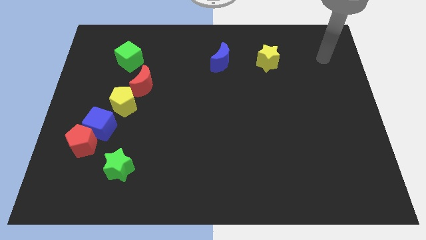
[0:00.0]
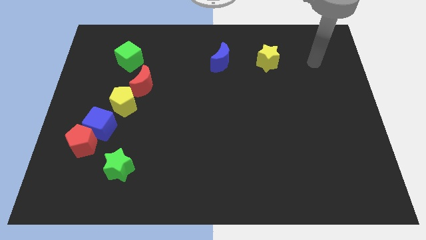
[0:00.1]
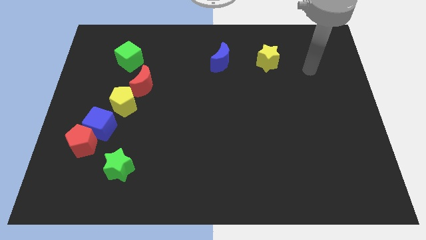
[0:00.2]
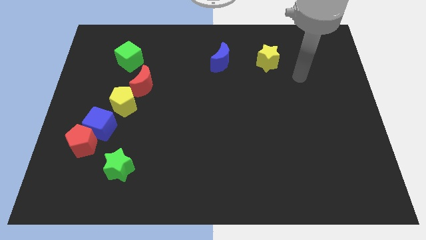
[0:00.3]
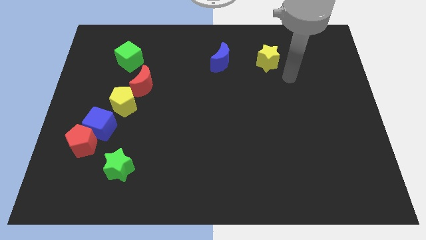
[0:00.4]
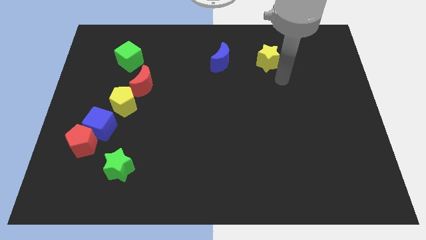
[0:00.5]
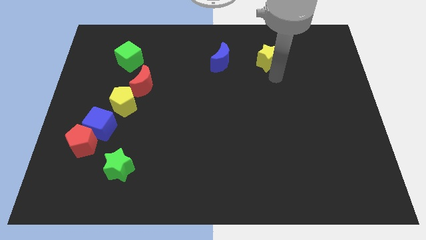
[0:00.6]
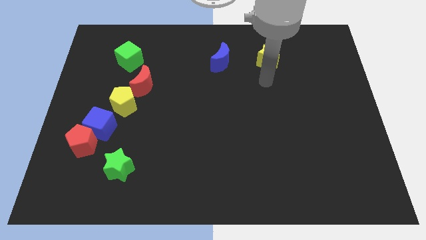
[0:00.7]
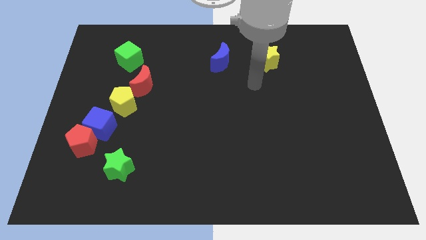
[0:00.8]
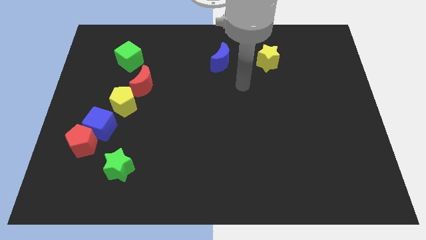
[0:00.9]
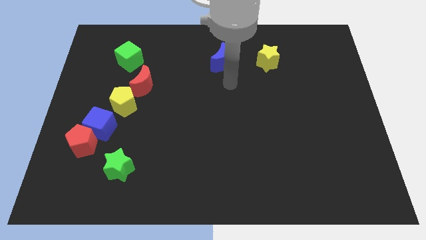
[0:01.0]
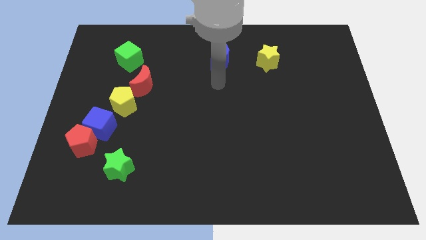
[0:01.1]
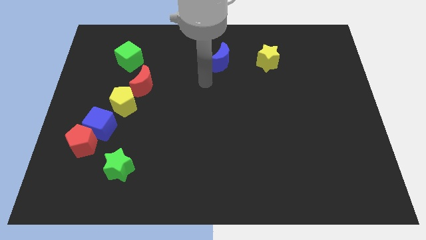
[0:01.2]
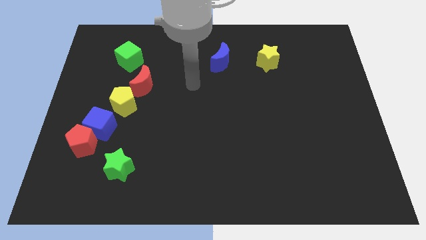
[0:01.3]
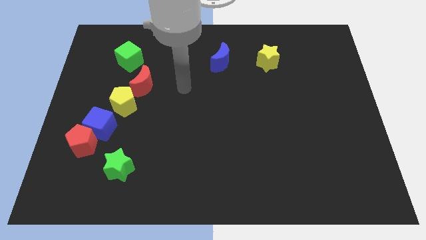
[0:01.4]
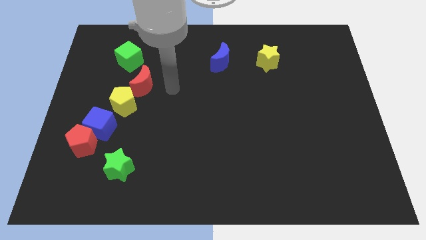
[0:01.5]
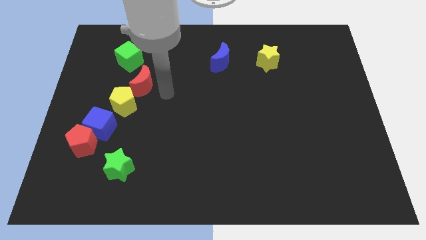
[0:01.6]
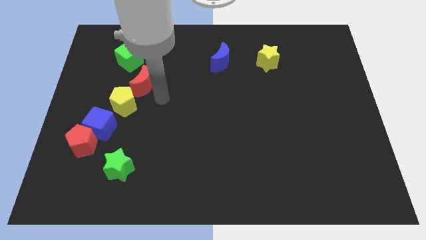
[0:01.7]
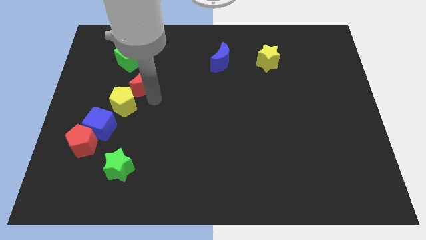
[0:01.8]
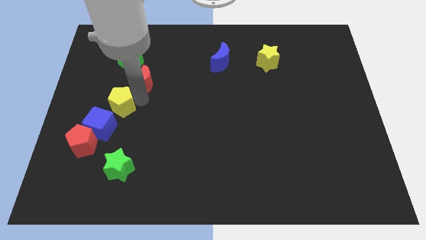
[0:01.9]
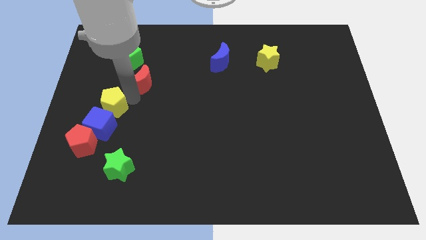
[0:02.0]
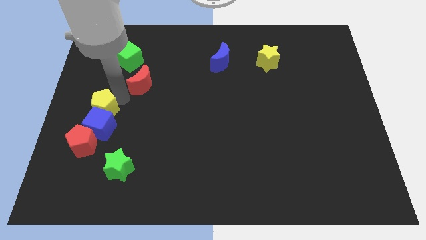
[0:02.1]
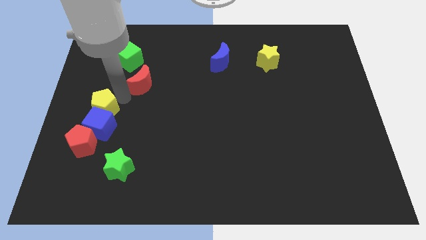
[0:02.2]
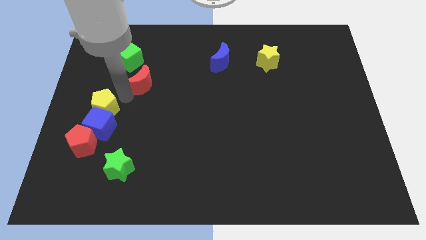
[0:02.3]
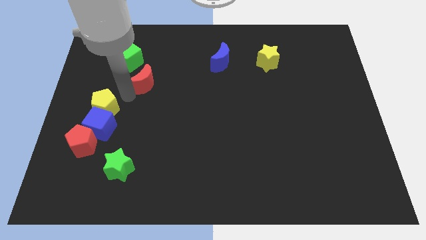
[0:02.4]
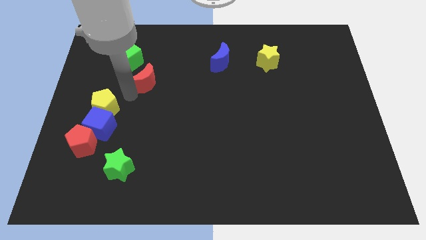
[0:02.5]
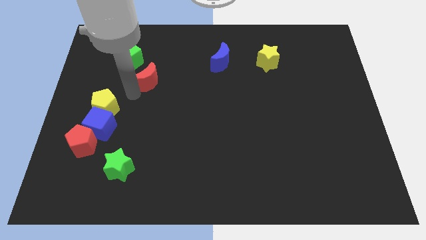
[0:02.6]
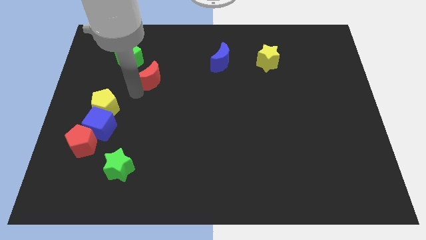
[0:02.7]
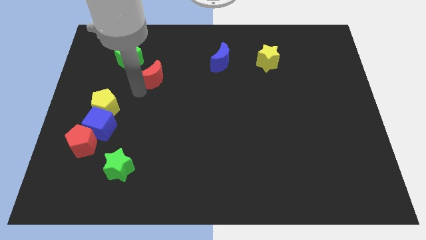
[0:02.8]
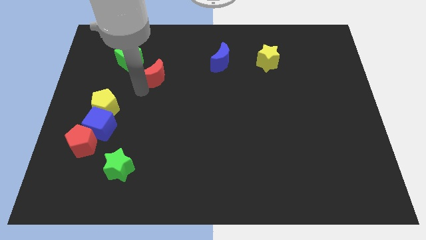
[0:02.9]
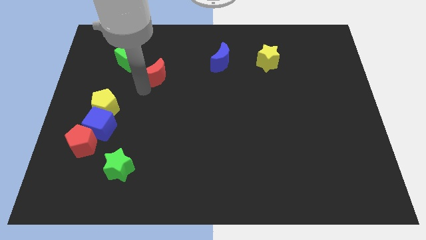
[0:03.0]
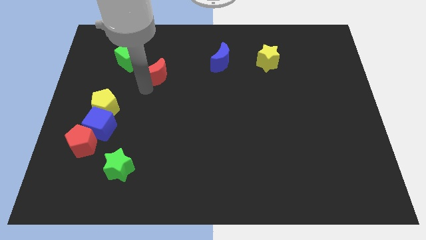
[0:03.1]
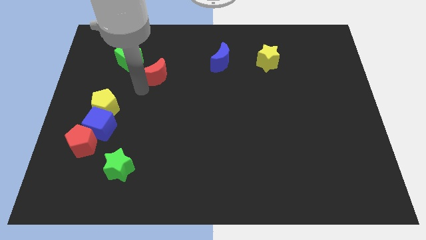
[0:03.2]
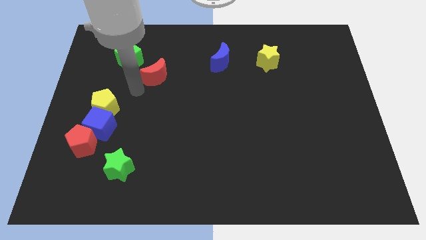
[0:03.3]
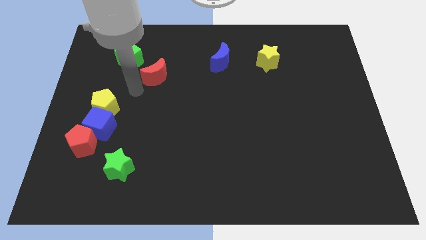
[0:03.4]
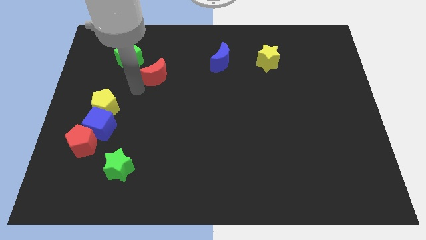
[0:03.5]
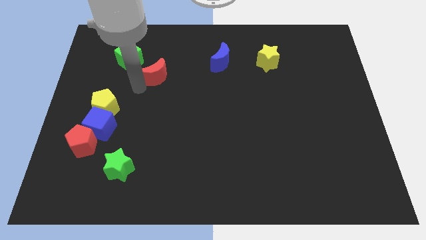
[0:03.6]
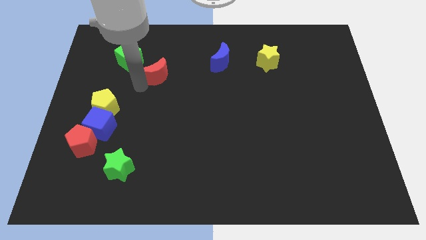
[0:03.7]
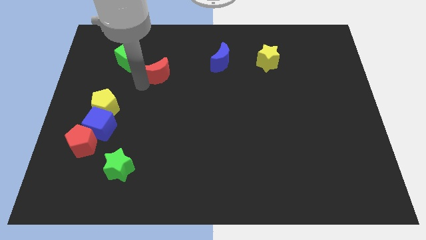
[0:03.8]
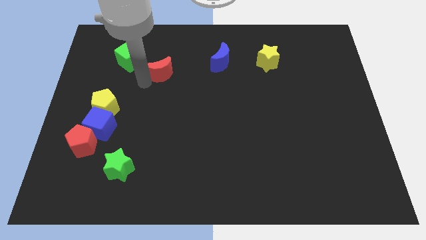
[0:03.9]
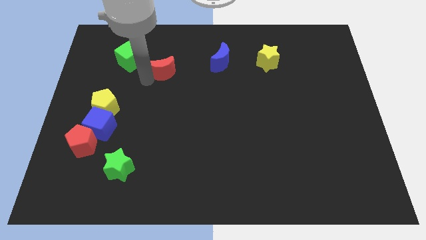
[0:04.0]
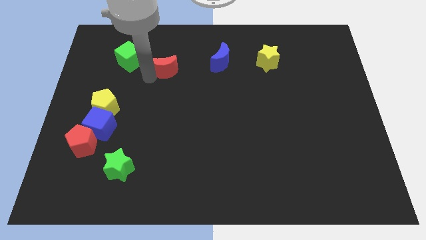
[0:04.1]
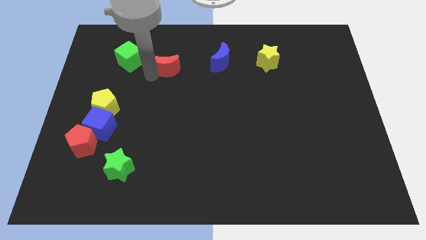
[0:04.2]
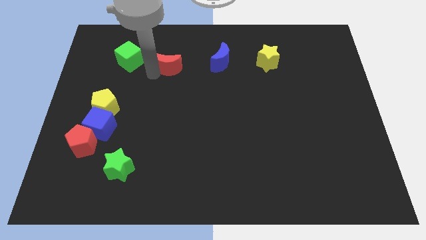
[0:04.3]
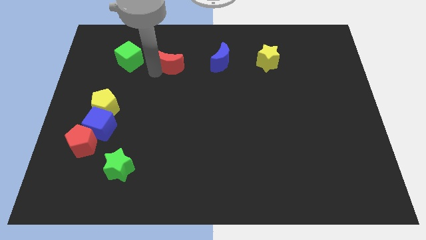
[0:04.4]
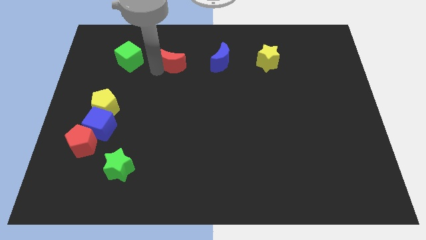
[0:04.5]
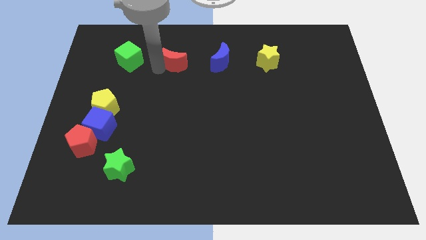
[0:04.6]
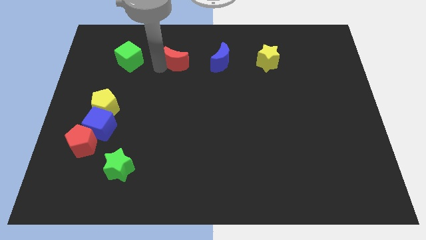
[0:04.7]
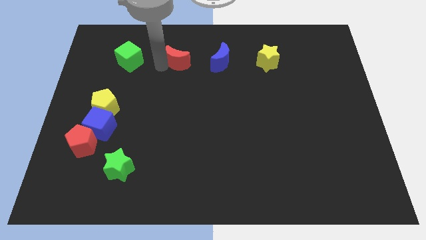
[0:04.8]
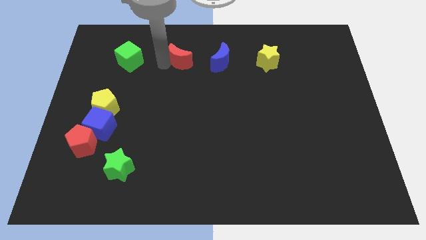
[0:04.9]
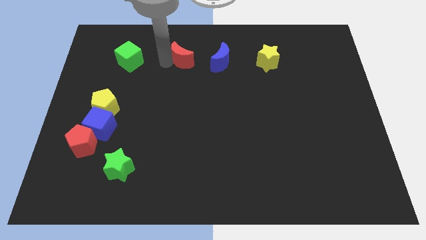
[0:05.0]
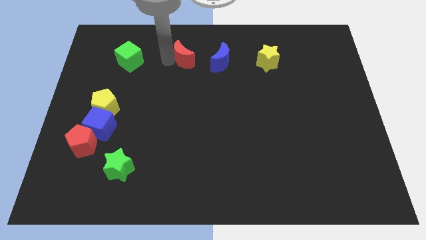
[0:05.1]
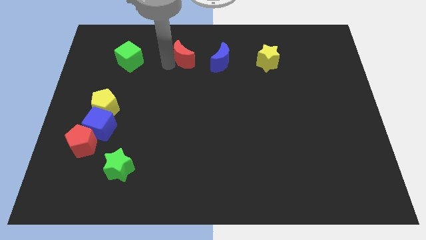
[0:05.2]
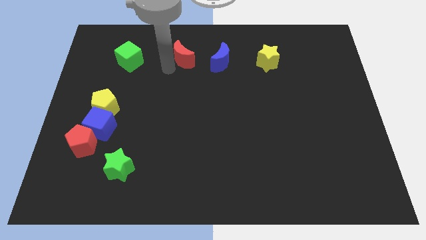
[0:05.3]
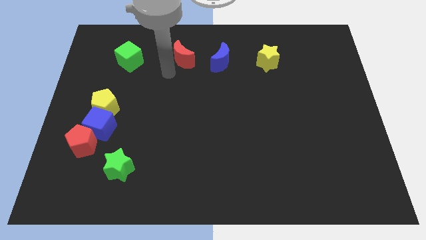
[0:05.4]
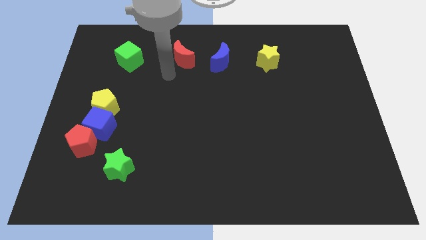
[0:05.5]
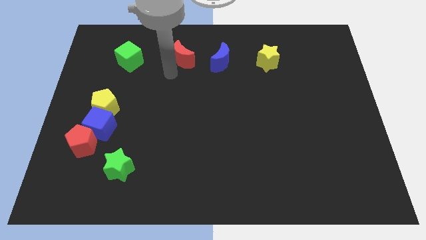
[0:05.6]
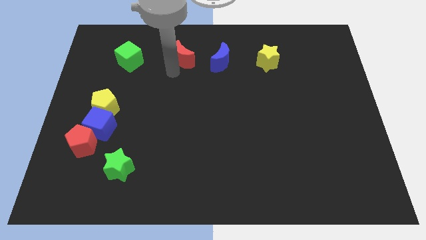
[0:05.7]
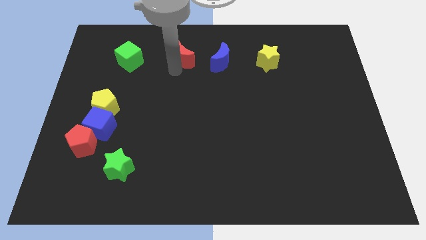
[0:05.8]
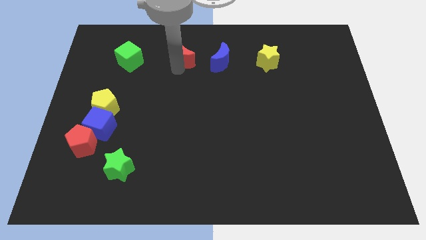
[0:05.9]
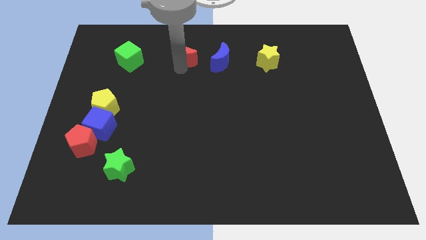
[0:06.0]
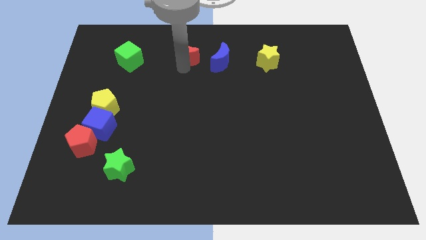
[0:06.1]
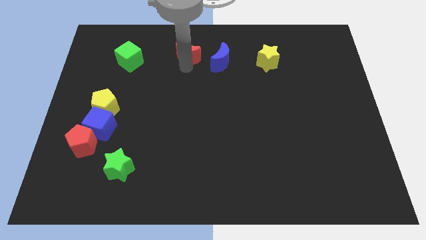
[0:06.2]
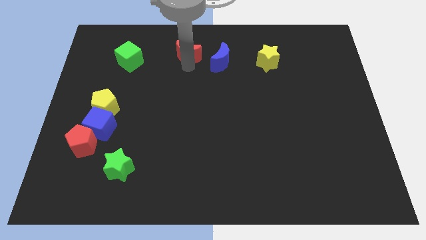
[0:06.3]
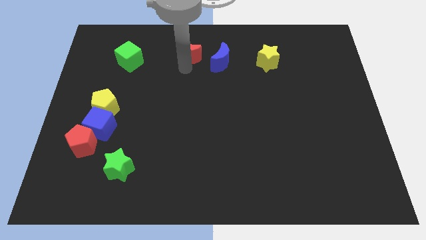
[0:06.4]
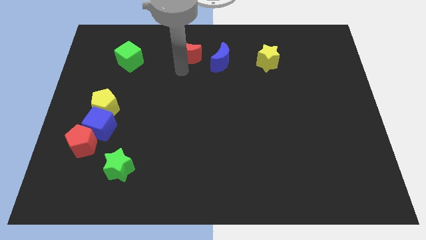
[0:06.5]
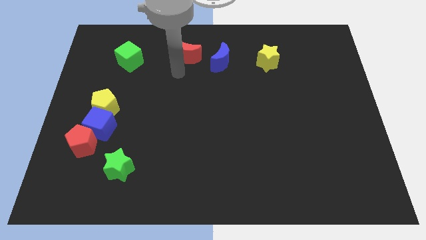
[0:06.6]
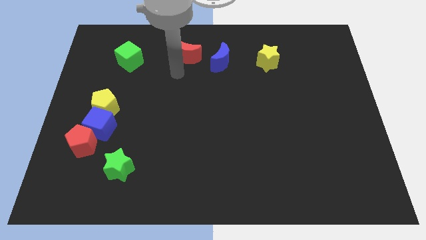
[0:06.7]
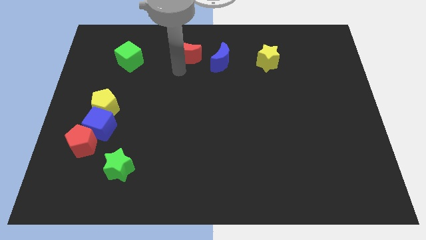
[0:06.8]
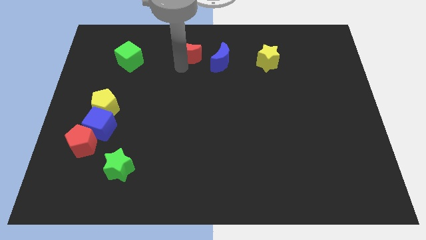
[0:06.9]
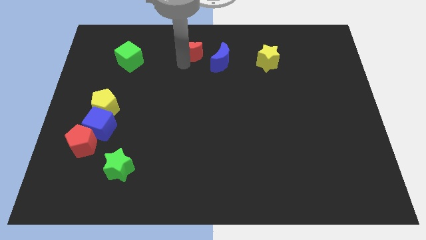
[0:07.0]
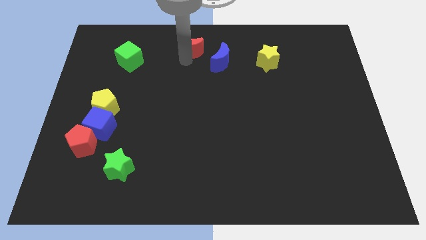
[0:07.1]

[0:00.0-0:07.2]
slide the red moon to the top

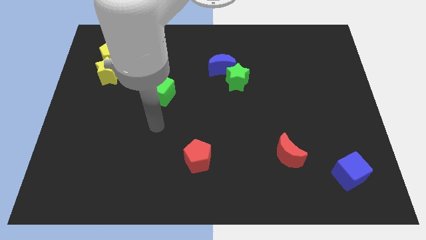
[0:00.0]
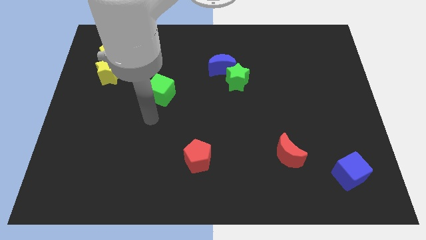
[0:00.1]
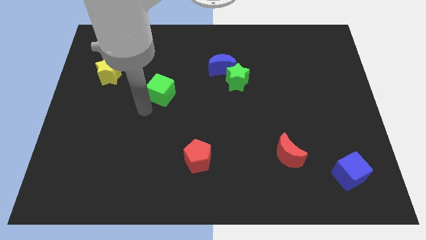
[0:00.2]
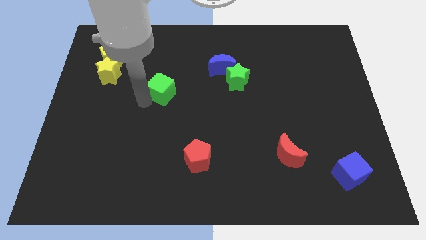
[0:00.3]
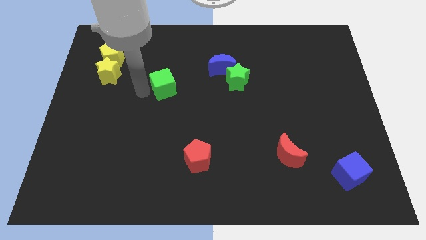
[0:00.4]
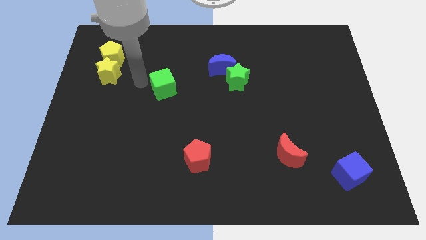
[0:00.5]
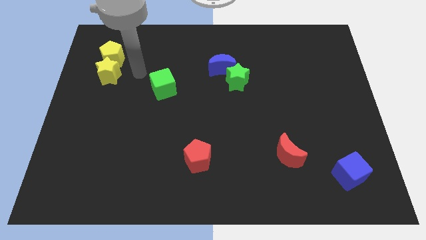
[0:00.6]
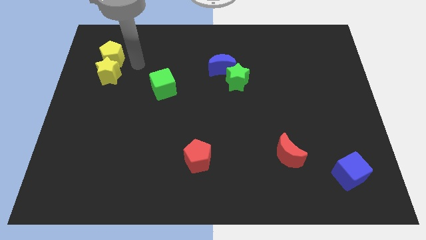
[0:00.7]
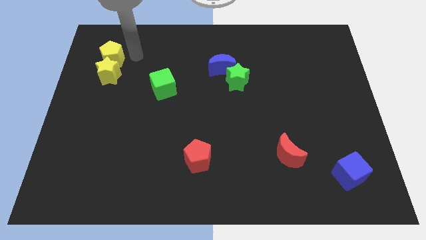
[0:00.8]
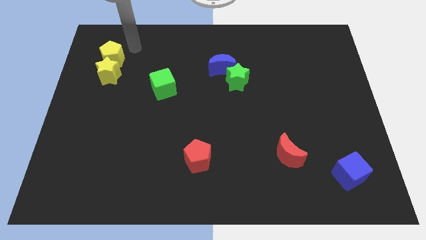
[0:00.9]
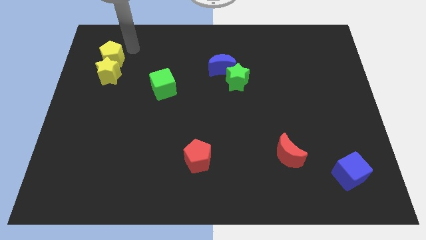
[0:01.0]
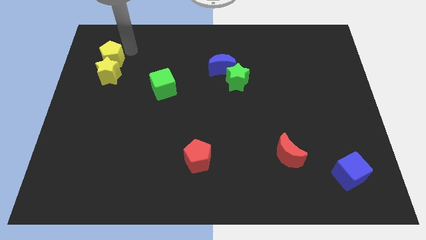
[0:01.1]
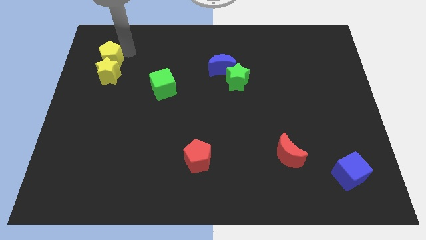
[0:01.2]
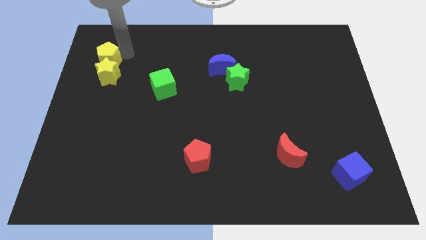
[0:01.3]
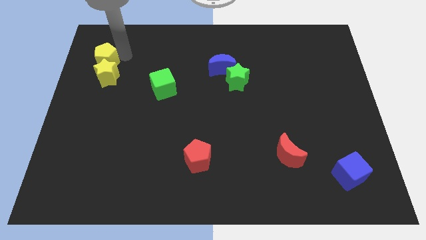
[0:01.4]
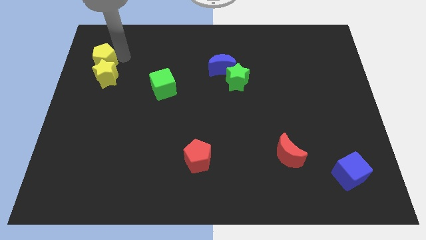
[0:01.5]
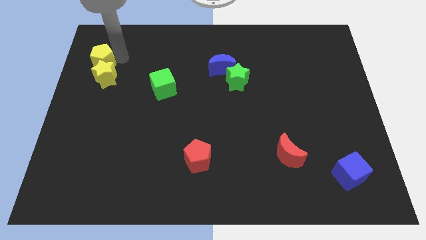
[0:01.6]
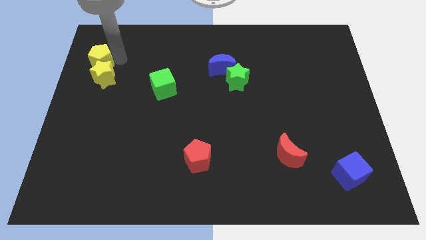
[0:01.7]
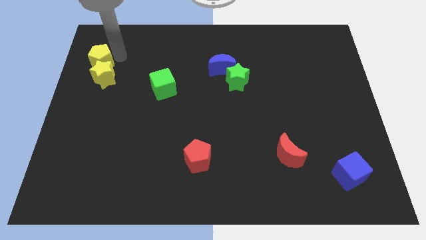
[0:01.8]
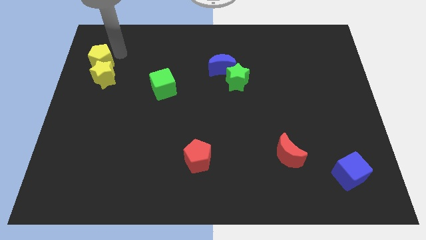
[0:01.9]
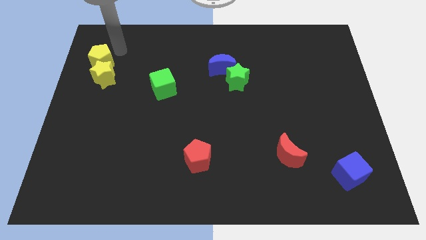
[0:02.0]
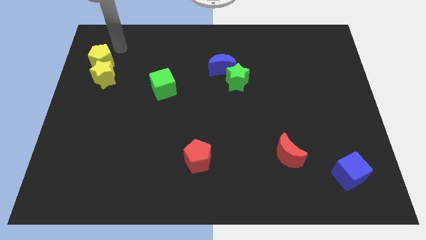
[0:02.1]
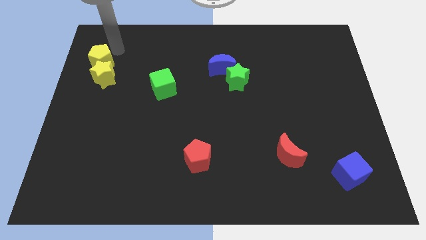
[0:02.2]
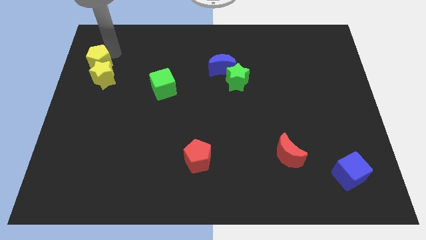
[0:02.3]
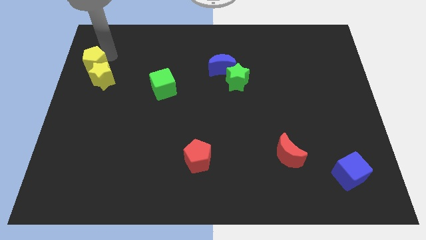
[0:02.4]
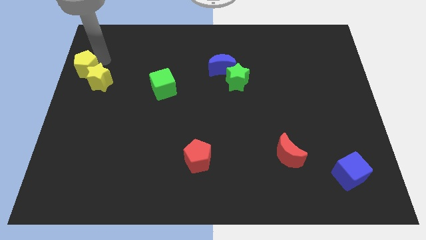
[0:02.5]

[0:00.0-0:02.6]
move the yellow pentagon to the center left
